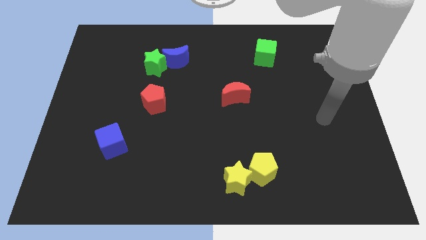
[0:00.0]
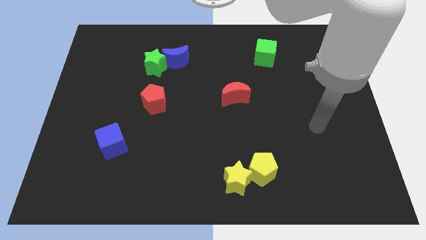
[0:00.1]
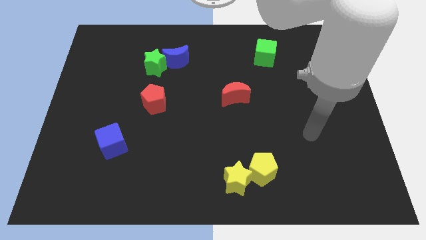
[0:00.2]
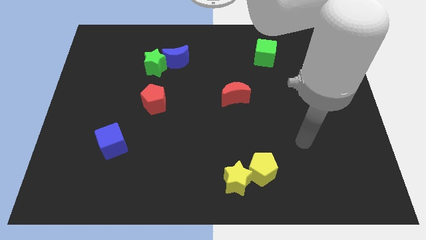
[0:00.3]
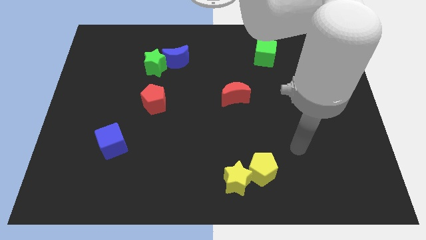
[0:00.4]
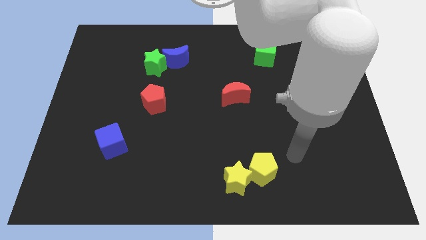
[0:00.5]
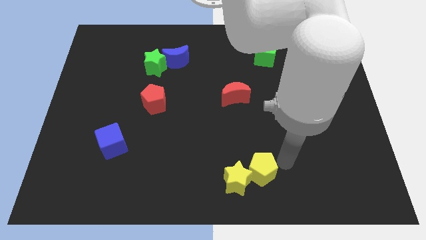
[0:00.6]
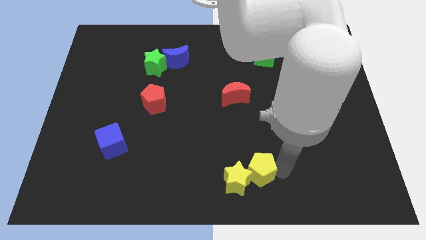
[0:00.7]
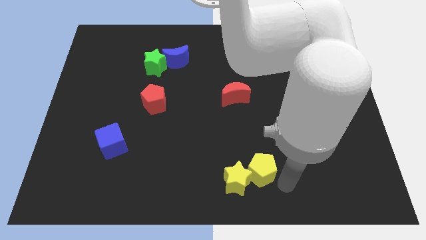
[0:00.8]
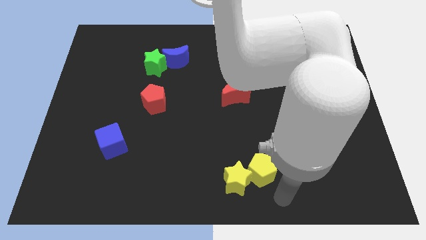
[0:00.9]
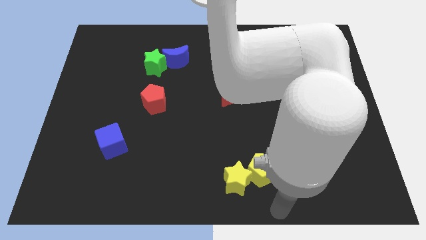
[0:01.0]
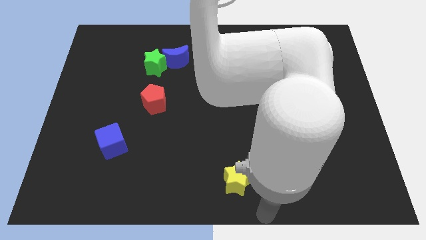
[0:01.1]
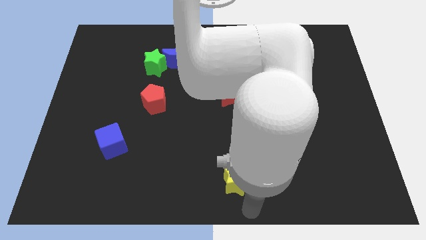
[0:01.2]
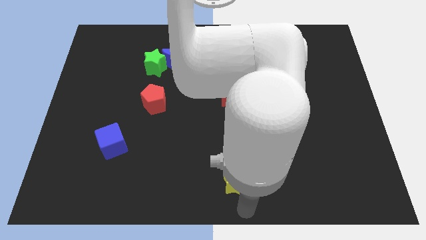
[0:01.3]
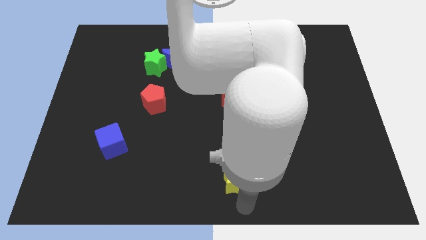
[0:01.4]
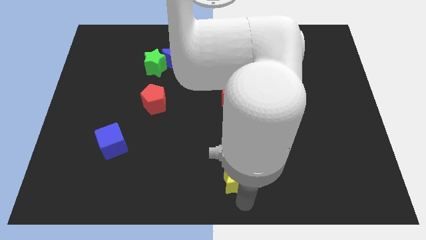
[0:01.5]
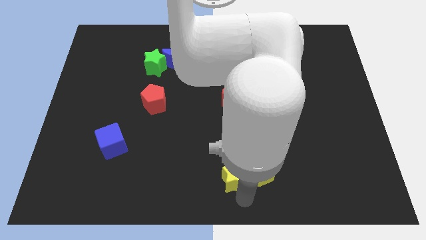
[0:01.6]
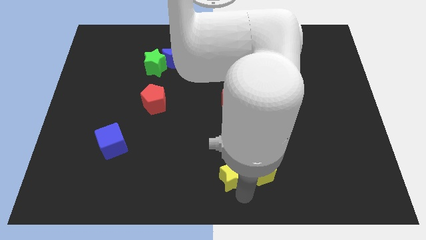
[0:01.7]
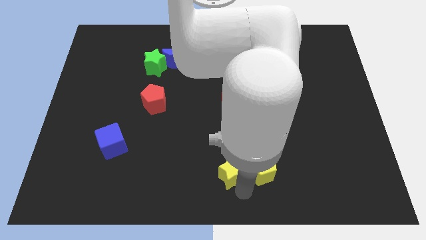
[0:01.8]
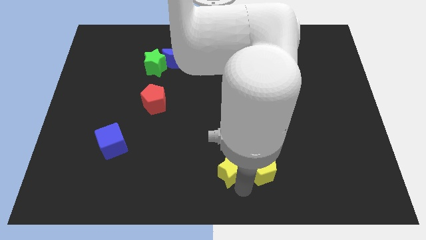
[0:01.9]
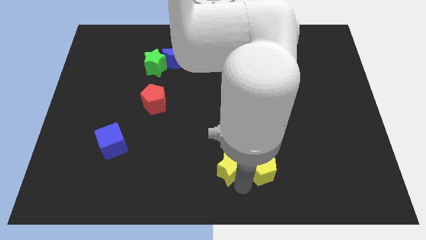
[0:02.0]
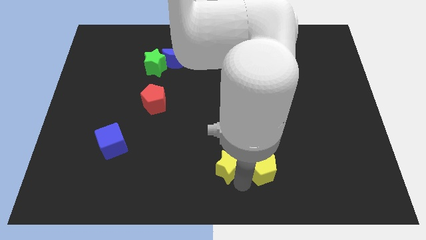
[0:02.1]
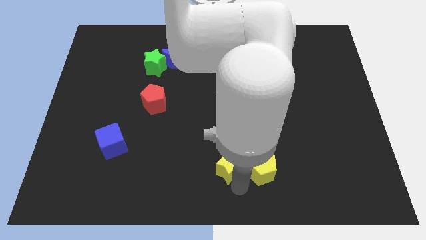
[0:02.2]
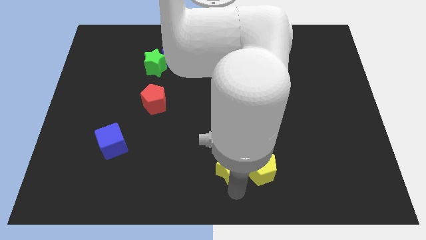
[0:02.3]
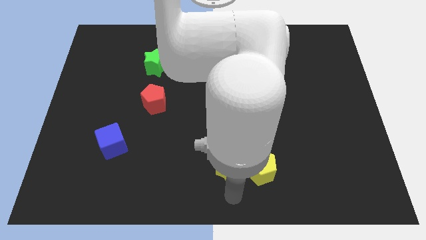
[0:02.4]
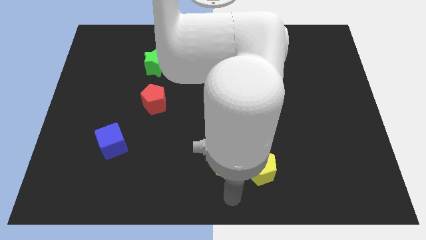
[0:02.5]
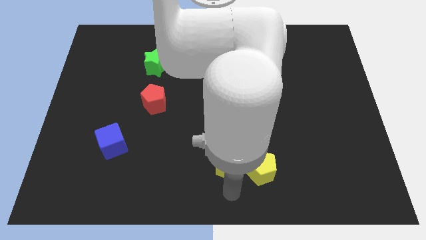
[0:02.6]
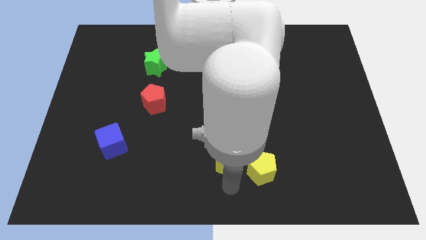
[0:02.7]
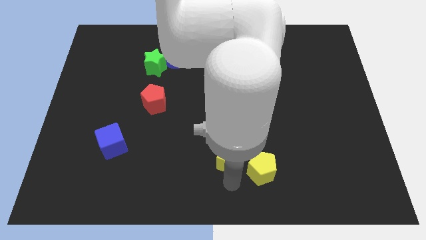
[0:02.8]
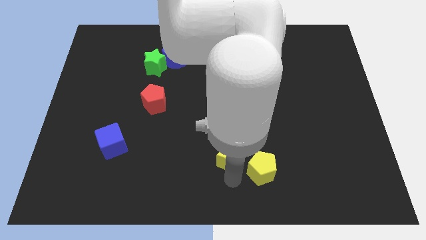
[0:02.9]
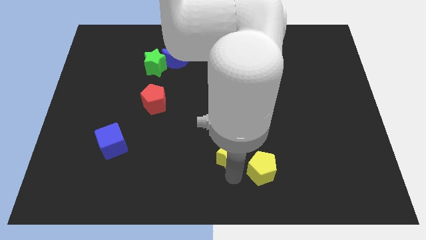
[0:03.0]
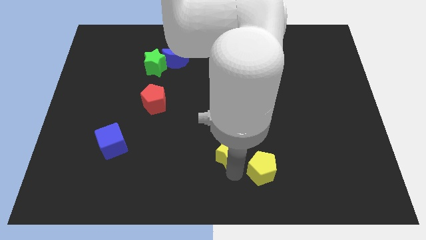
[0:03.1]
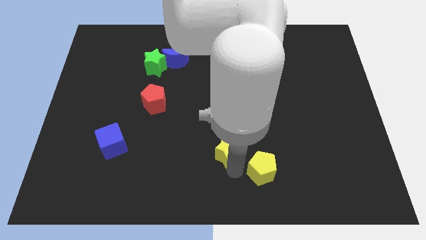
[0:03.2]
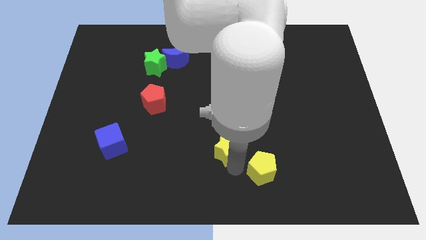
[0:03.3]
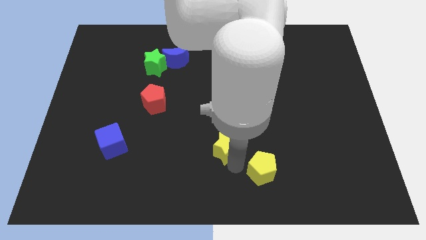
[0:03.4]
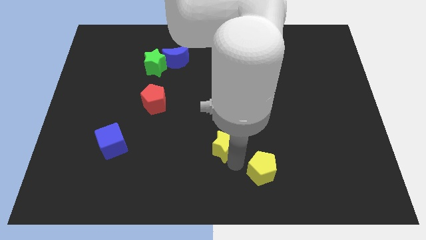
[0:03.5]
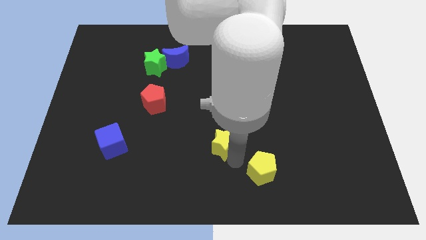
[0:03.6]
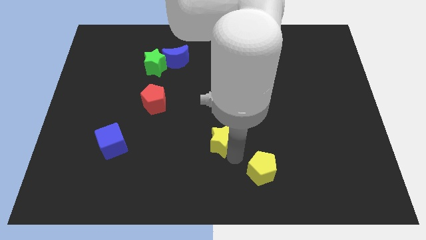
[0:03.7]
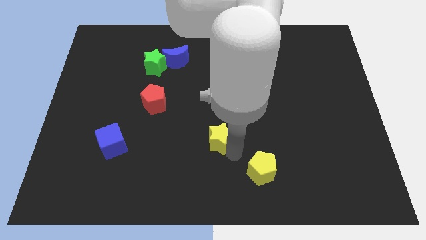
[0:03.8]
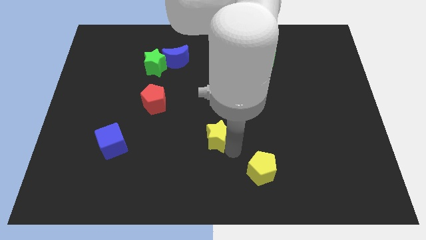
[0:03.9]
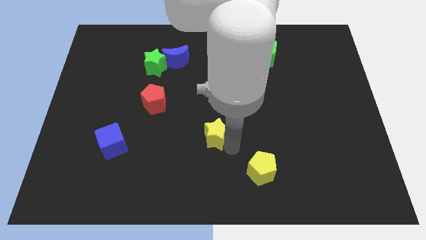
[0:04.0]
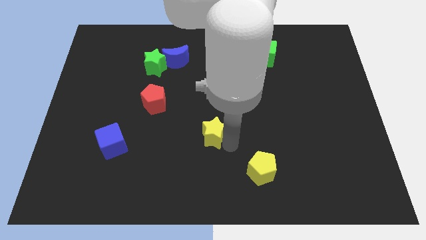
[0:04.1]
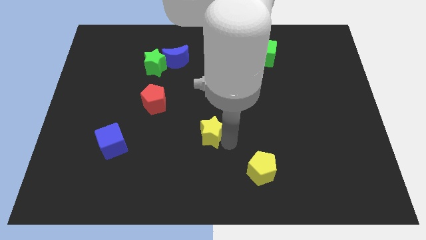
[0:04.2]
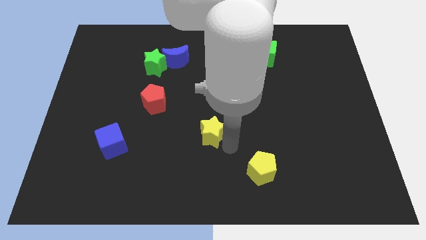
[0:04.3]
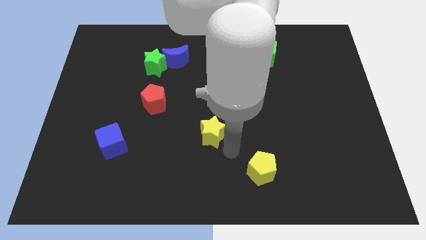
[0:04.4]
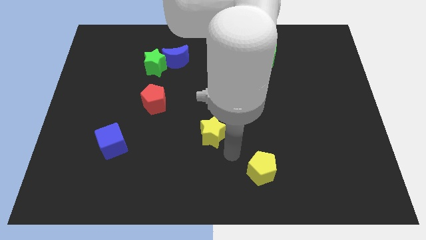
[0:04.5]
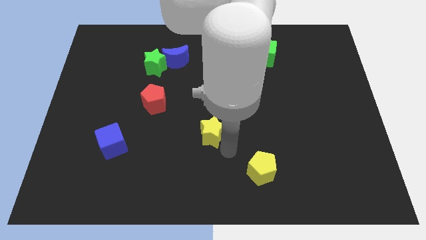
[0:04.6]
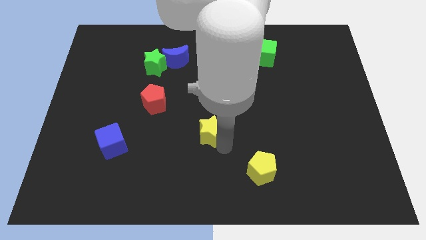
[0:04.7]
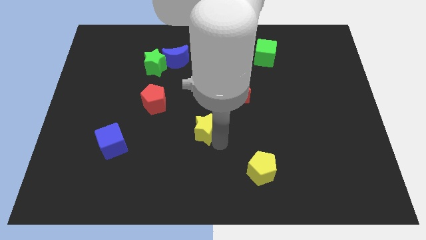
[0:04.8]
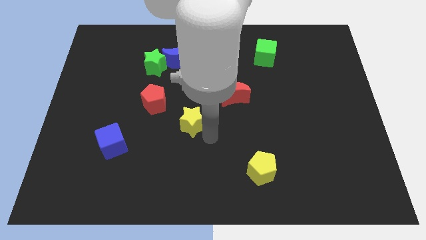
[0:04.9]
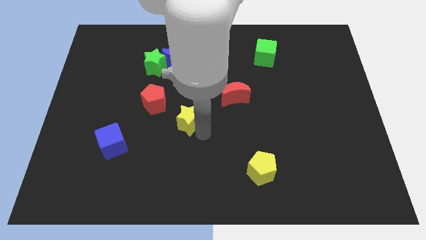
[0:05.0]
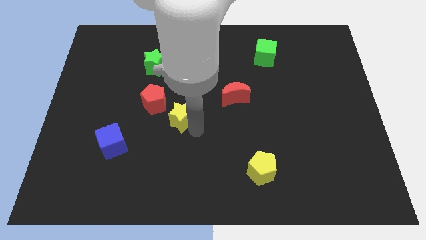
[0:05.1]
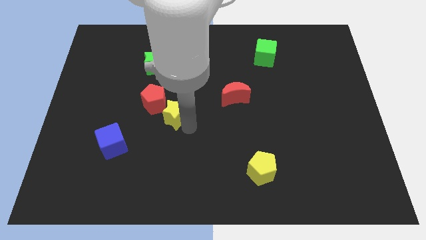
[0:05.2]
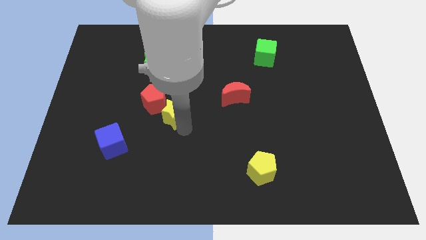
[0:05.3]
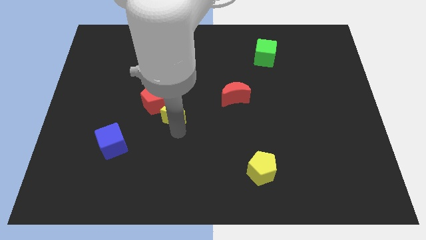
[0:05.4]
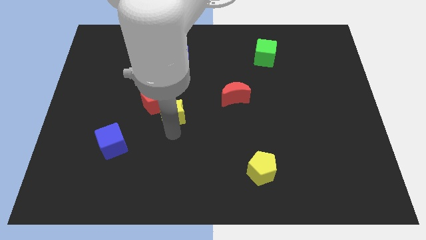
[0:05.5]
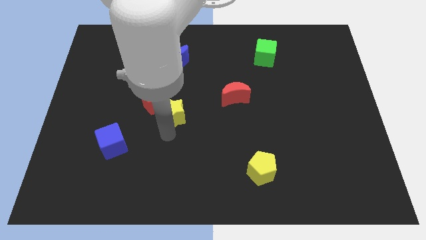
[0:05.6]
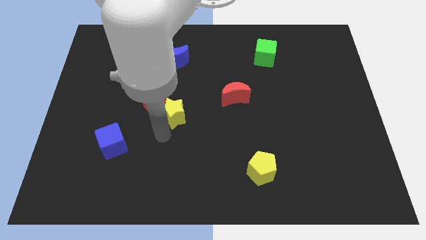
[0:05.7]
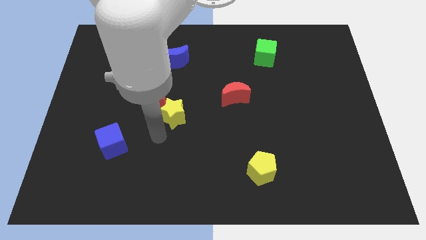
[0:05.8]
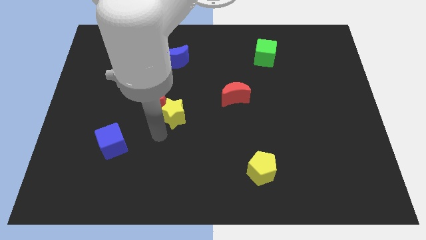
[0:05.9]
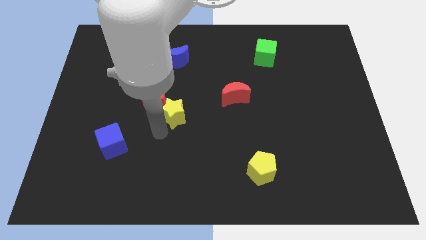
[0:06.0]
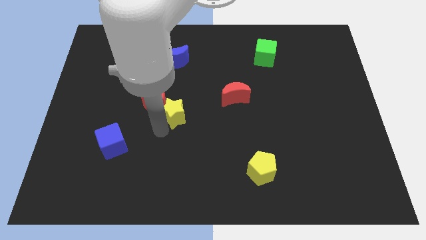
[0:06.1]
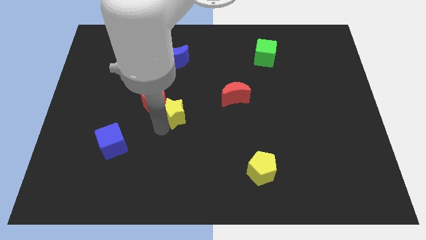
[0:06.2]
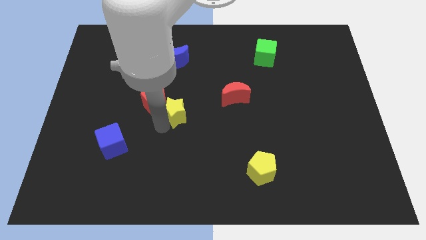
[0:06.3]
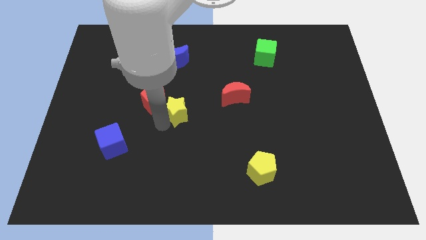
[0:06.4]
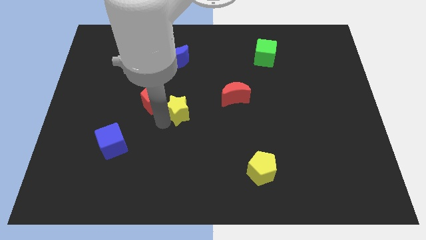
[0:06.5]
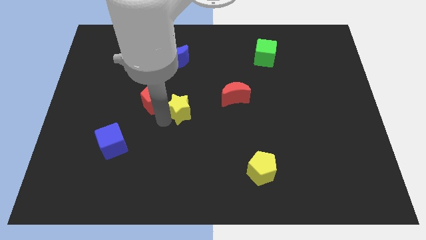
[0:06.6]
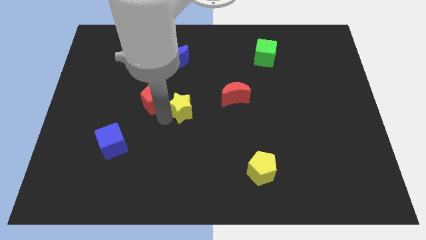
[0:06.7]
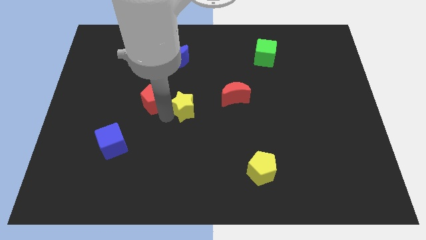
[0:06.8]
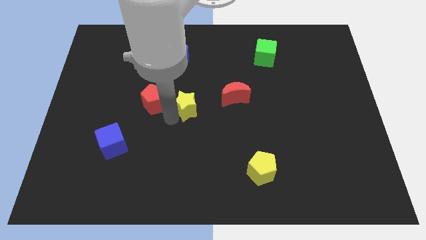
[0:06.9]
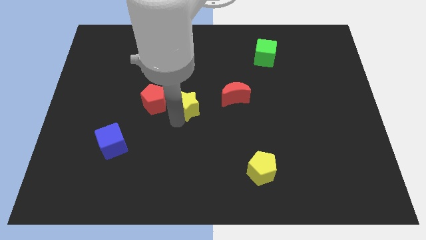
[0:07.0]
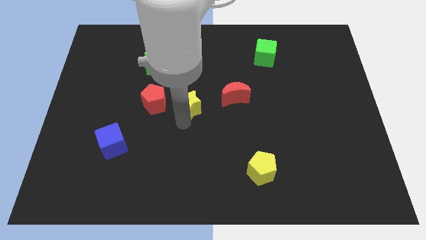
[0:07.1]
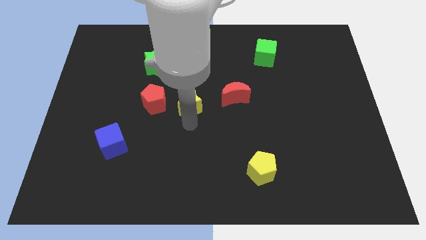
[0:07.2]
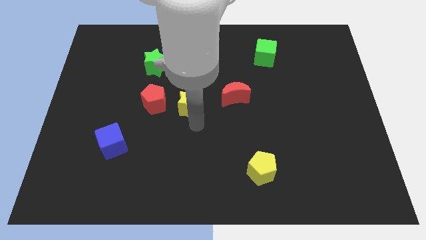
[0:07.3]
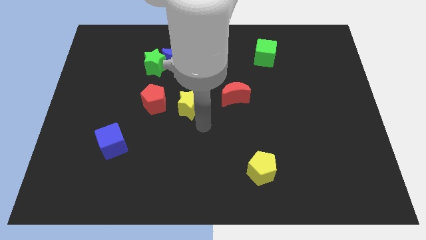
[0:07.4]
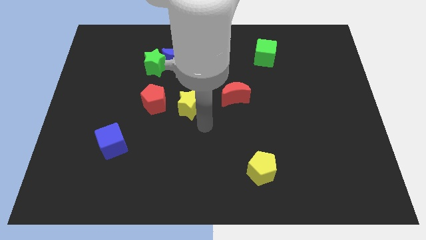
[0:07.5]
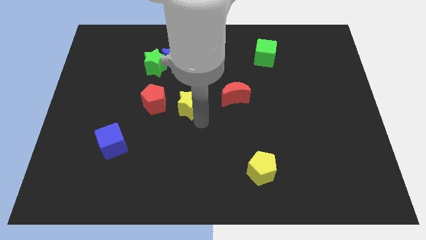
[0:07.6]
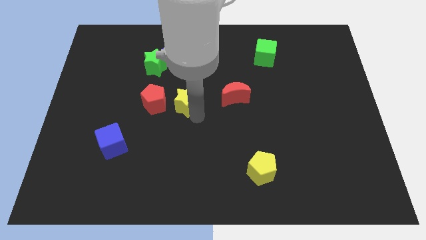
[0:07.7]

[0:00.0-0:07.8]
put the yellow star to the bottom side of the blue moon
